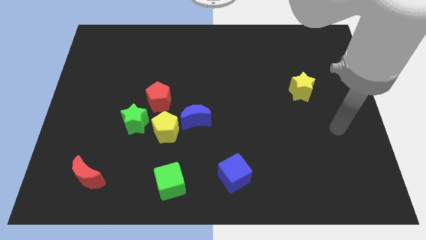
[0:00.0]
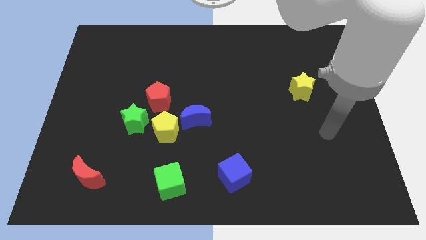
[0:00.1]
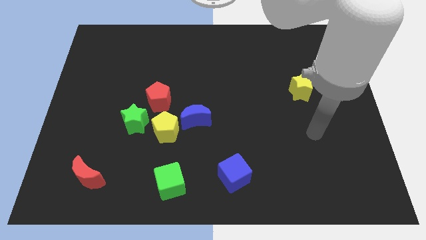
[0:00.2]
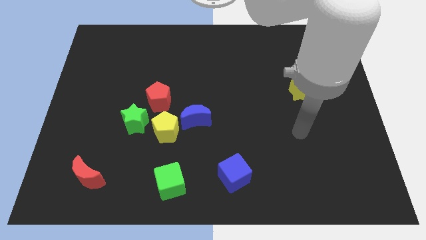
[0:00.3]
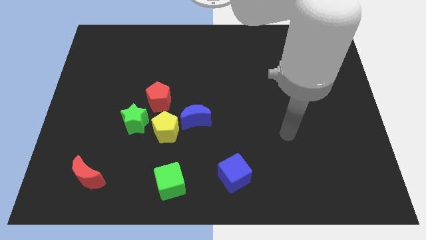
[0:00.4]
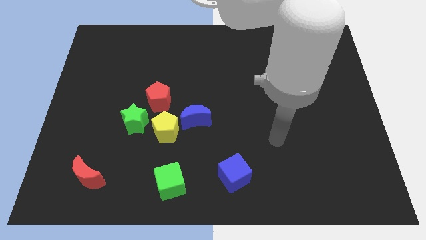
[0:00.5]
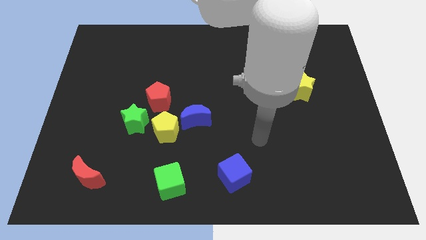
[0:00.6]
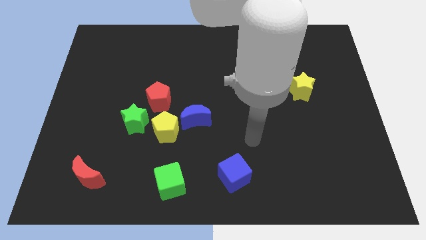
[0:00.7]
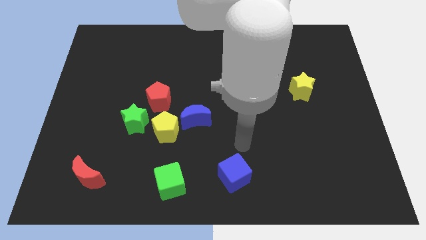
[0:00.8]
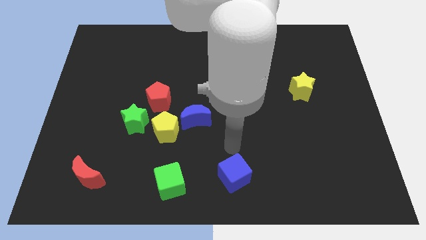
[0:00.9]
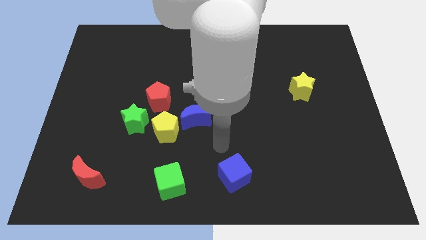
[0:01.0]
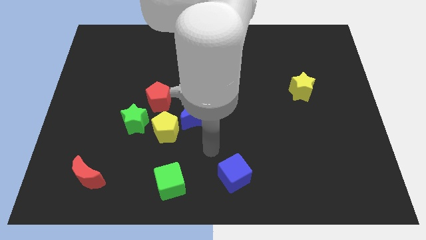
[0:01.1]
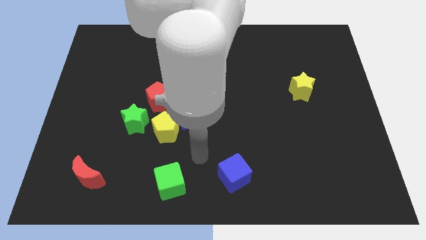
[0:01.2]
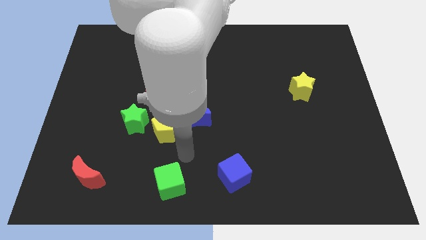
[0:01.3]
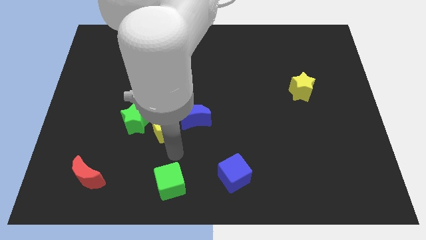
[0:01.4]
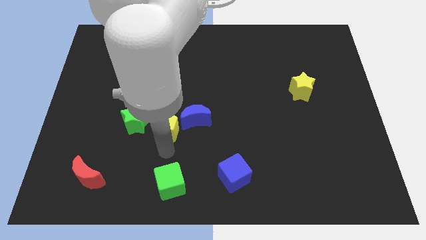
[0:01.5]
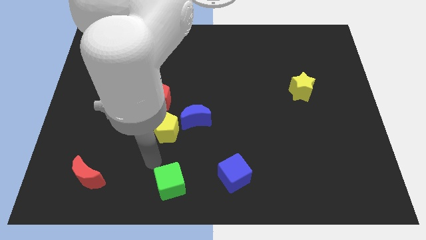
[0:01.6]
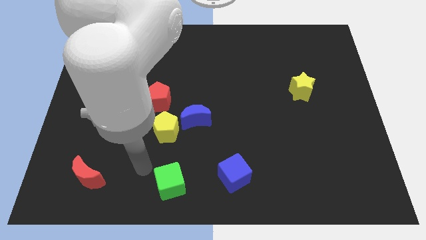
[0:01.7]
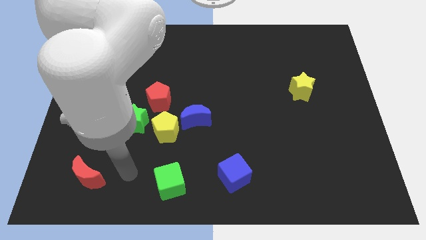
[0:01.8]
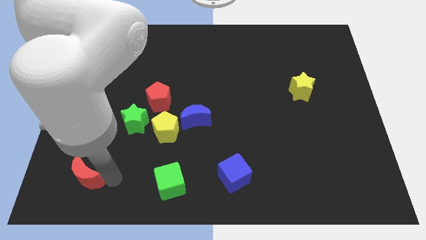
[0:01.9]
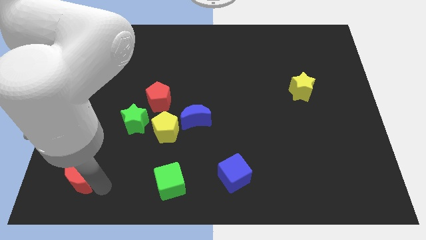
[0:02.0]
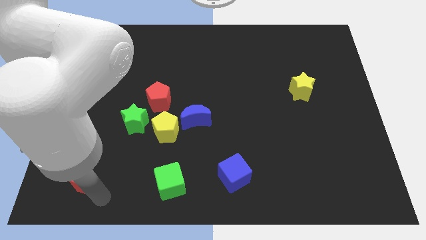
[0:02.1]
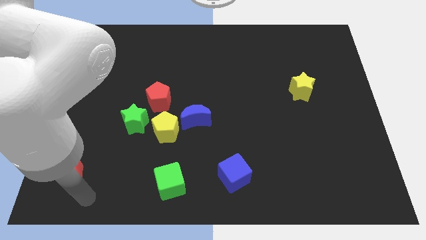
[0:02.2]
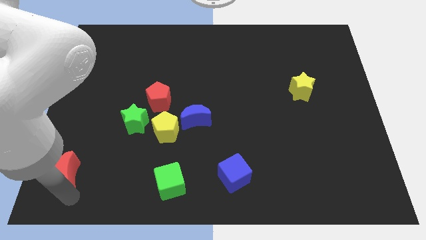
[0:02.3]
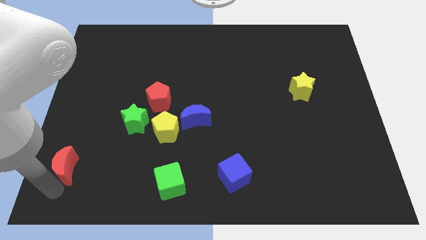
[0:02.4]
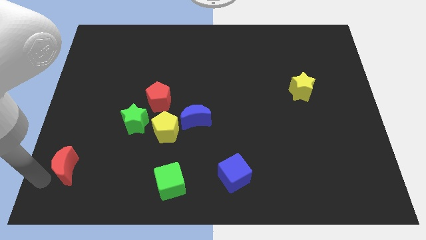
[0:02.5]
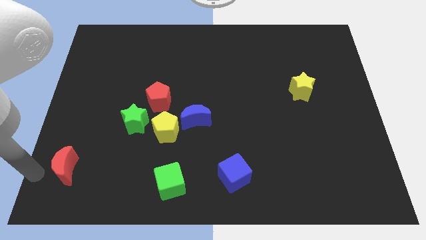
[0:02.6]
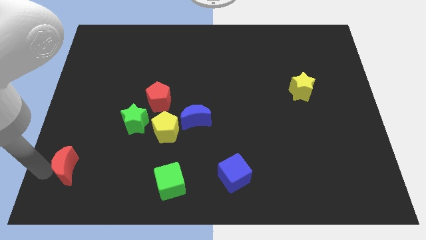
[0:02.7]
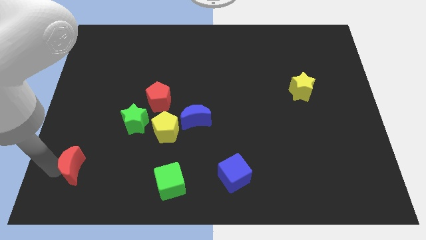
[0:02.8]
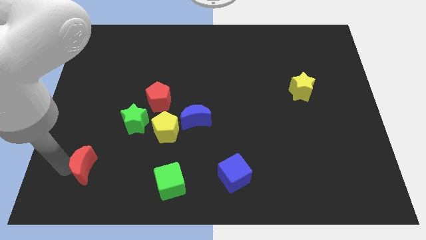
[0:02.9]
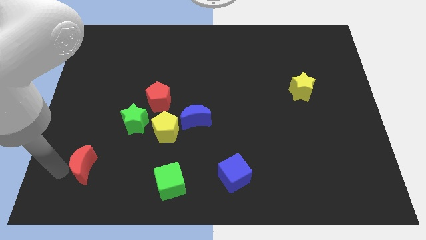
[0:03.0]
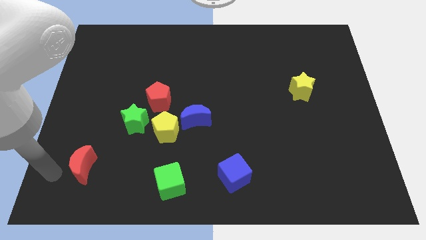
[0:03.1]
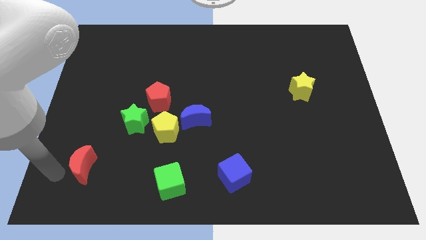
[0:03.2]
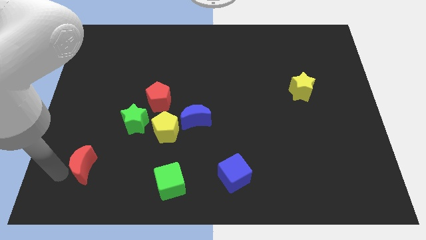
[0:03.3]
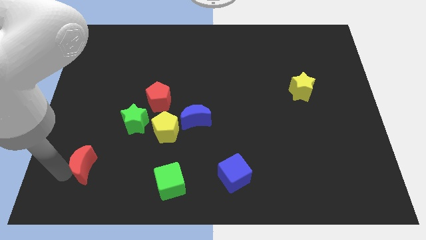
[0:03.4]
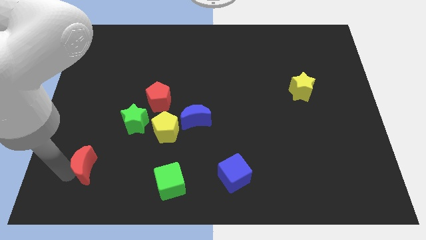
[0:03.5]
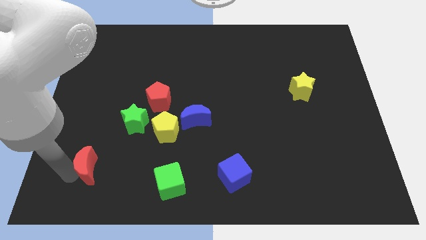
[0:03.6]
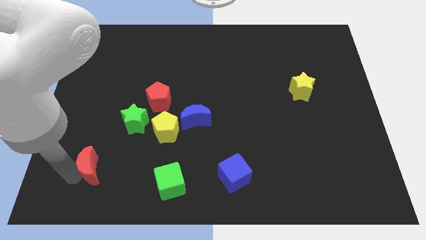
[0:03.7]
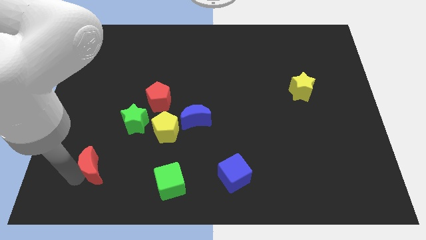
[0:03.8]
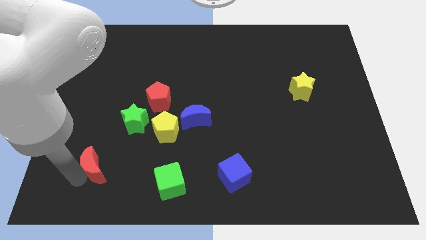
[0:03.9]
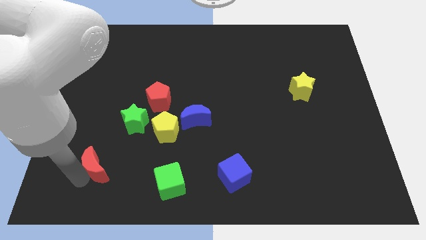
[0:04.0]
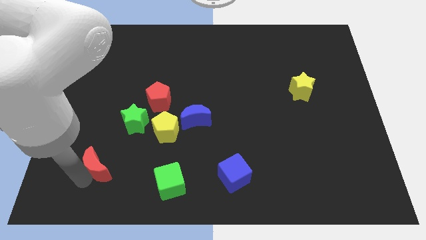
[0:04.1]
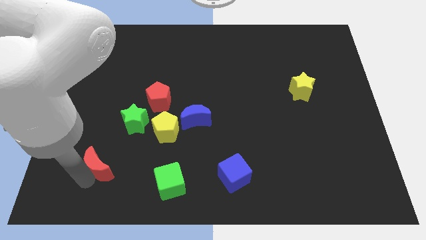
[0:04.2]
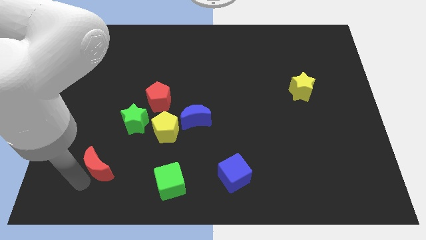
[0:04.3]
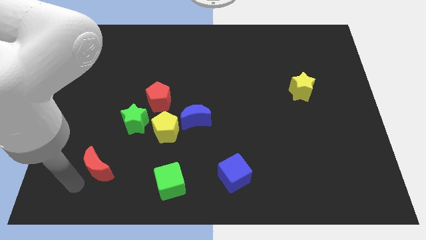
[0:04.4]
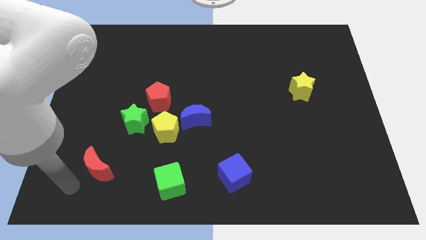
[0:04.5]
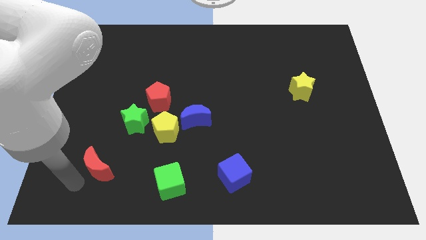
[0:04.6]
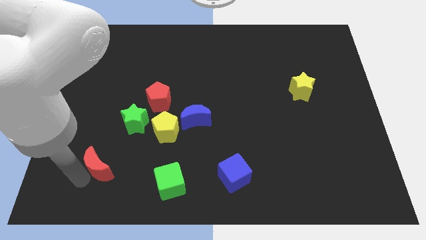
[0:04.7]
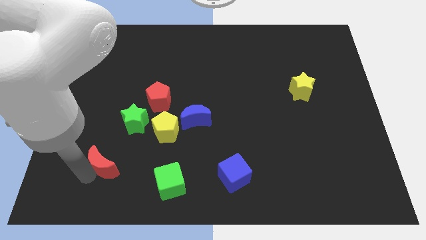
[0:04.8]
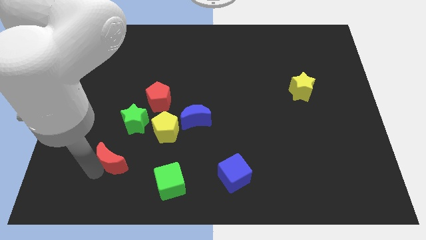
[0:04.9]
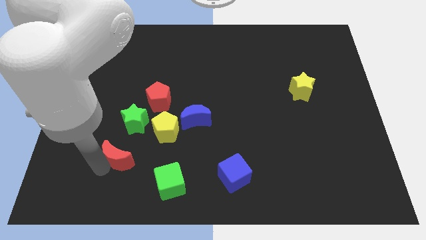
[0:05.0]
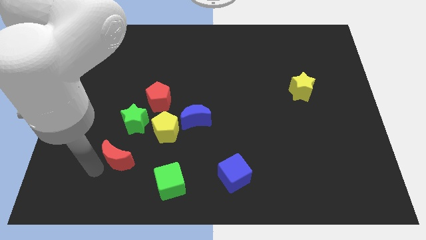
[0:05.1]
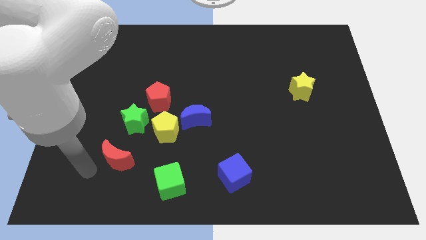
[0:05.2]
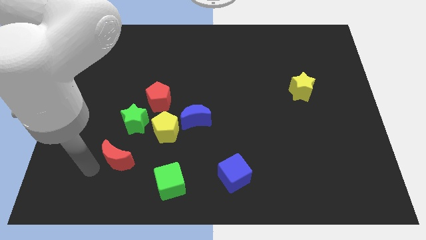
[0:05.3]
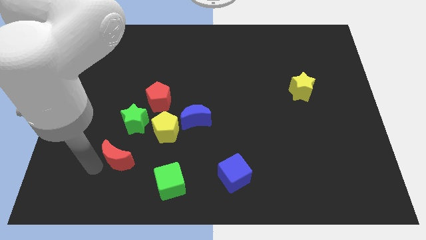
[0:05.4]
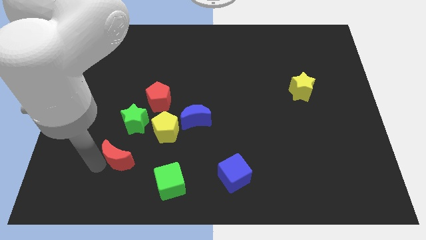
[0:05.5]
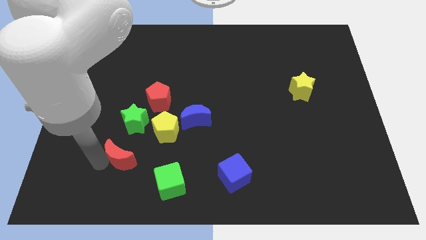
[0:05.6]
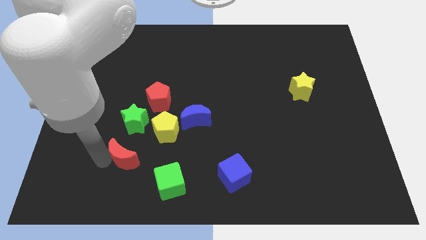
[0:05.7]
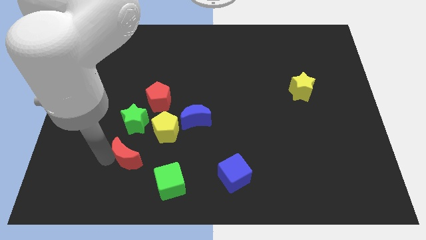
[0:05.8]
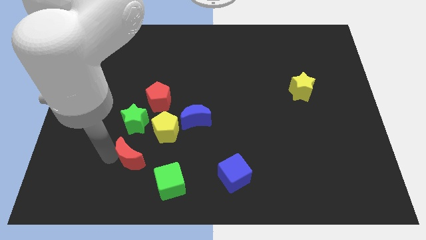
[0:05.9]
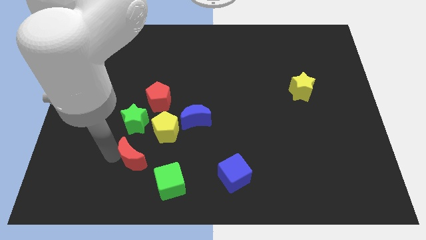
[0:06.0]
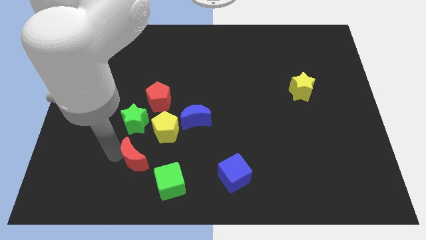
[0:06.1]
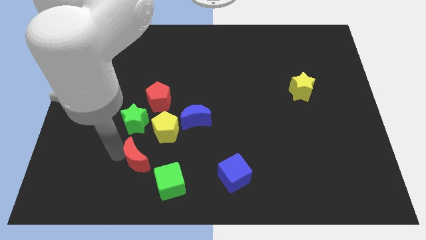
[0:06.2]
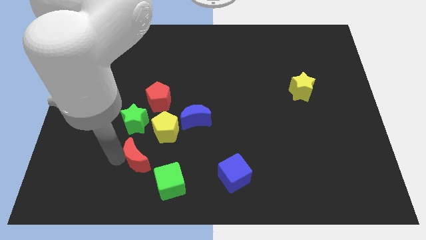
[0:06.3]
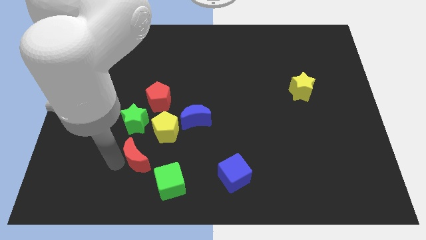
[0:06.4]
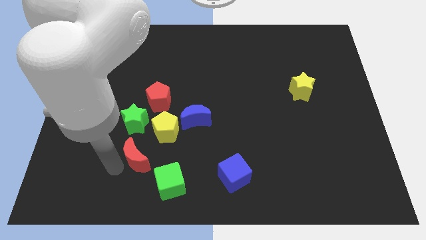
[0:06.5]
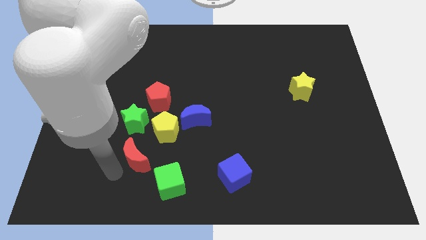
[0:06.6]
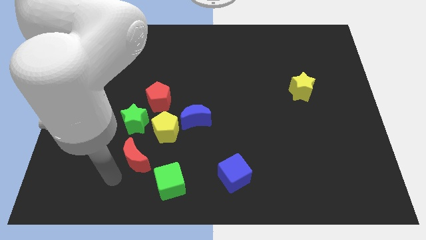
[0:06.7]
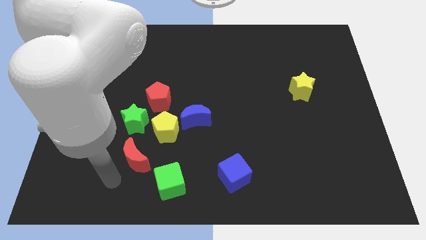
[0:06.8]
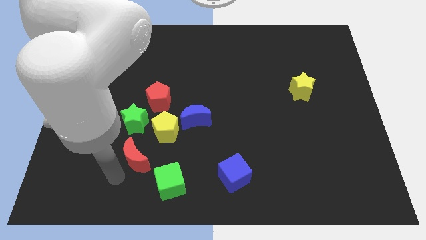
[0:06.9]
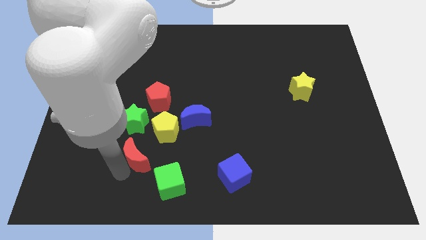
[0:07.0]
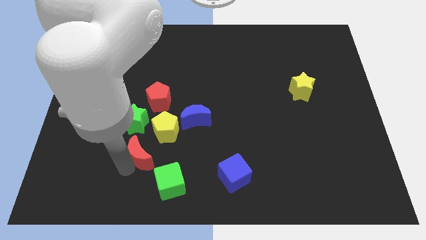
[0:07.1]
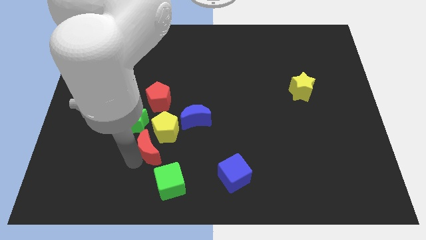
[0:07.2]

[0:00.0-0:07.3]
slide the red moon to the bottom left of the blue moon
